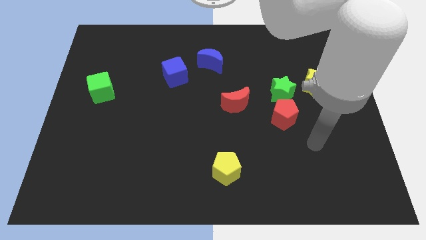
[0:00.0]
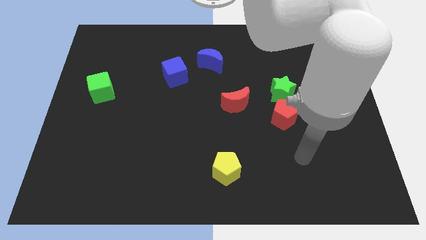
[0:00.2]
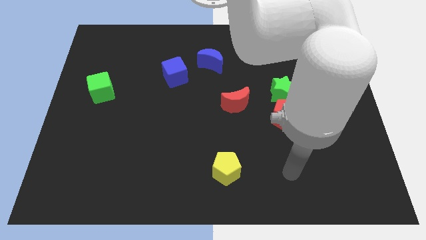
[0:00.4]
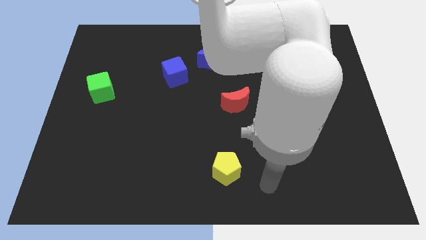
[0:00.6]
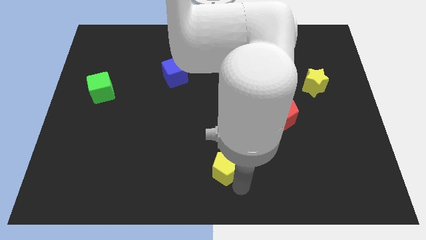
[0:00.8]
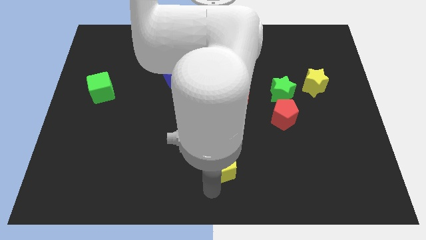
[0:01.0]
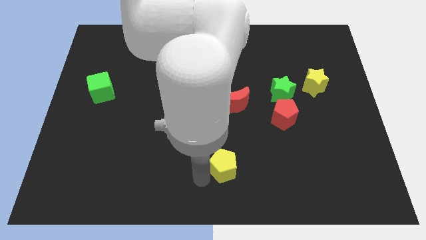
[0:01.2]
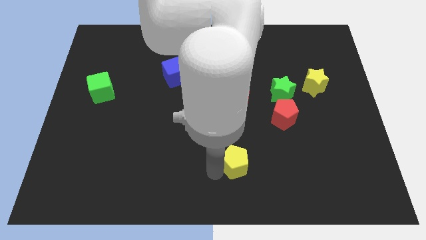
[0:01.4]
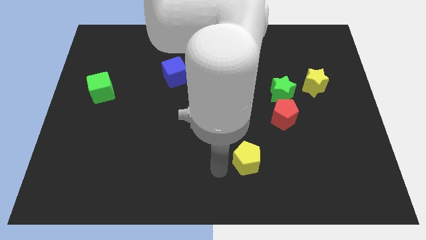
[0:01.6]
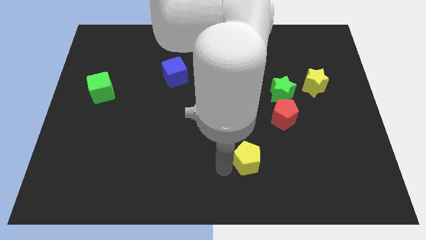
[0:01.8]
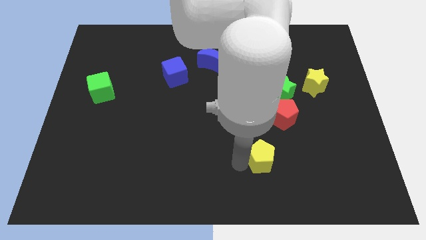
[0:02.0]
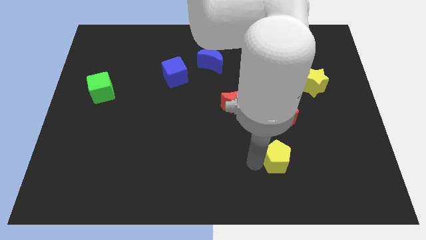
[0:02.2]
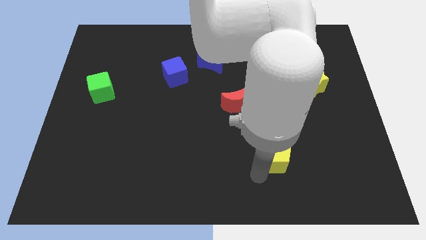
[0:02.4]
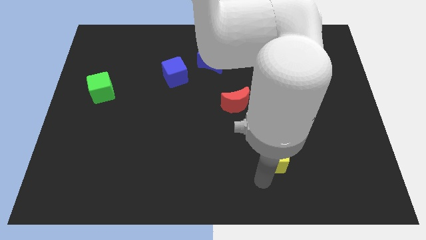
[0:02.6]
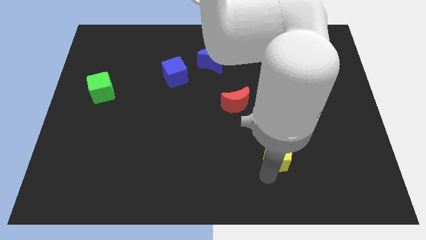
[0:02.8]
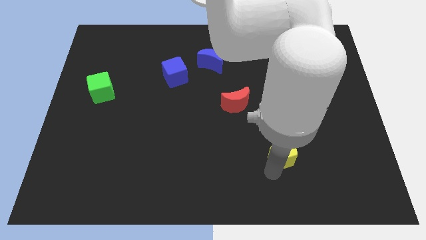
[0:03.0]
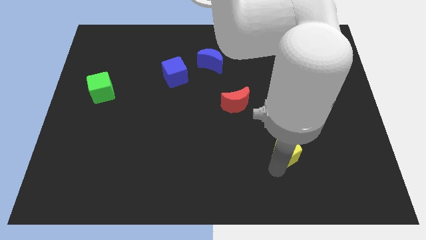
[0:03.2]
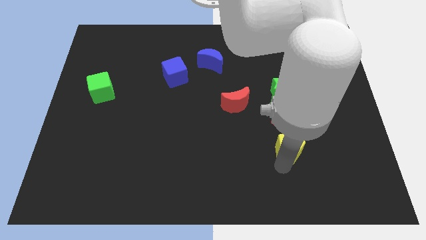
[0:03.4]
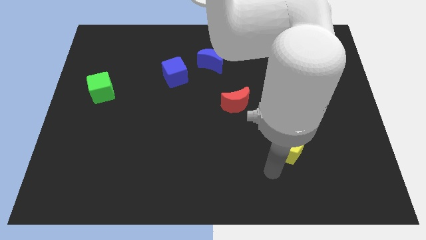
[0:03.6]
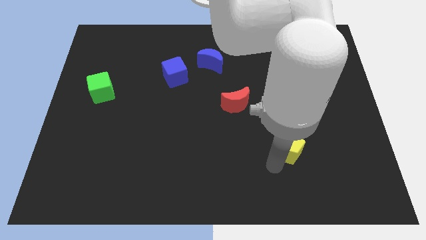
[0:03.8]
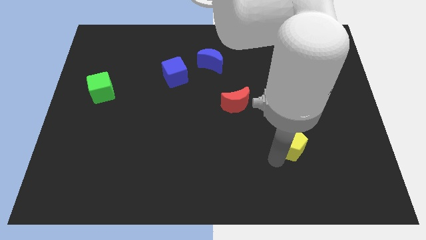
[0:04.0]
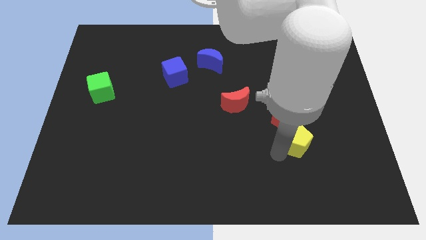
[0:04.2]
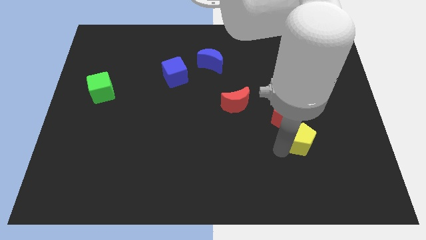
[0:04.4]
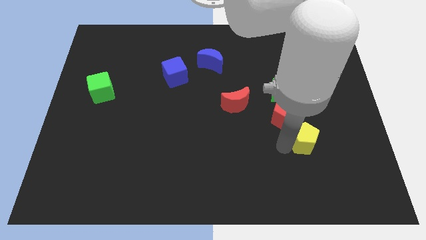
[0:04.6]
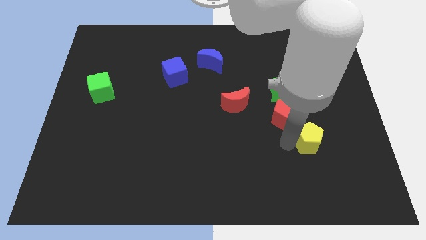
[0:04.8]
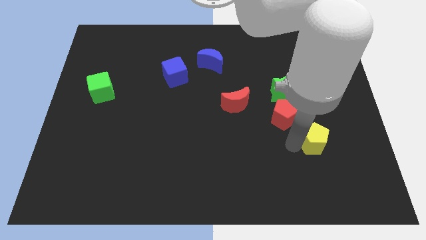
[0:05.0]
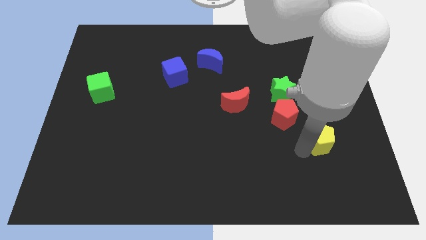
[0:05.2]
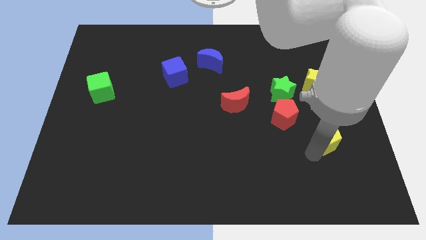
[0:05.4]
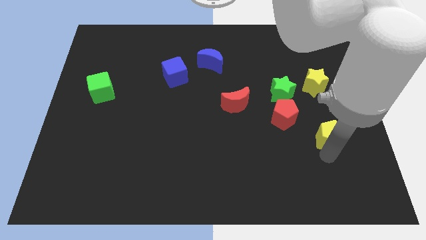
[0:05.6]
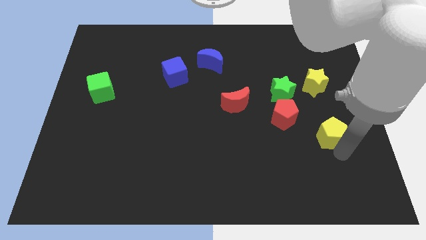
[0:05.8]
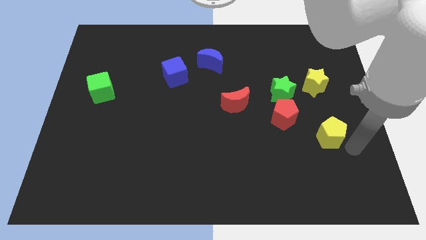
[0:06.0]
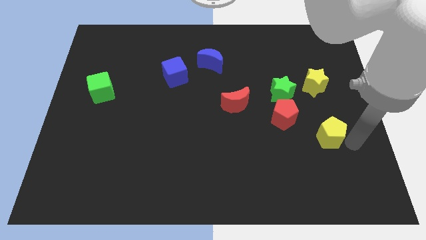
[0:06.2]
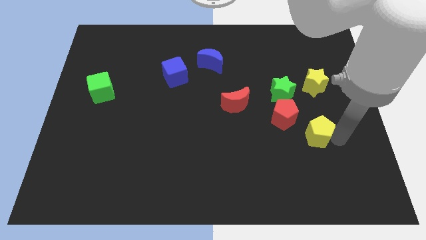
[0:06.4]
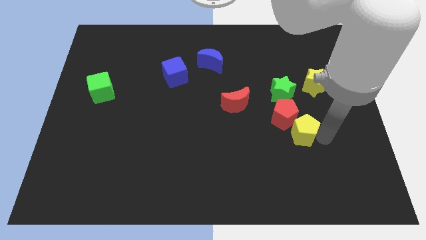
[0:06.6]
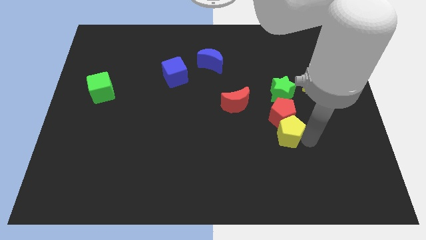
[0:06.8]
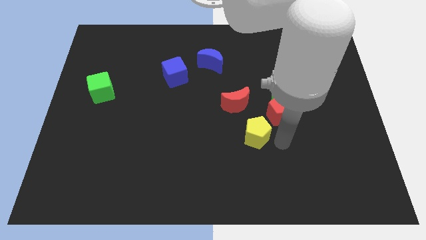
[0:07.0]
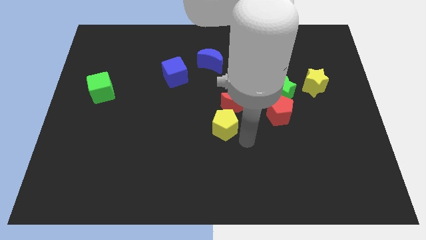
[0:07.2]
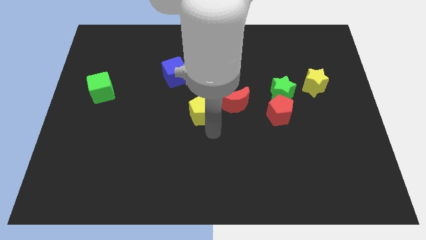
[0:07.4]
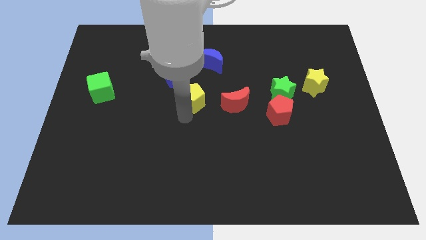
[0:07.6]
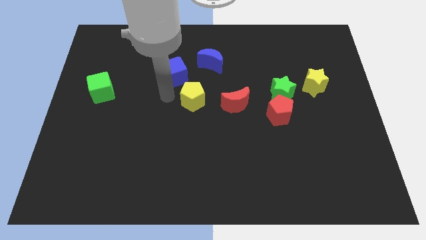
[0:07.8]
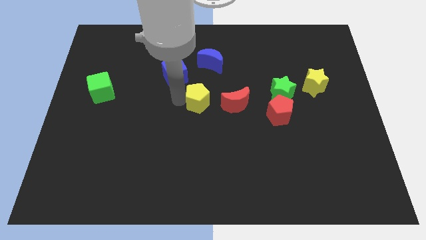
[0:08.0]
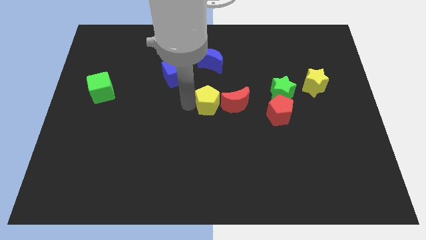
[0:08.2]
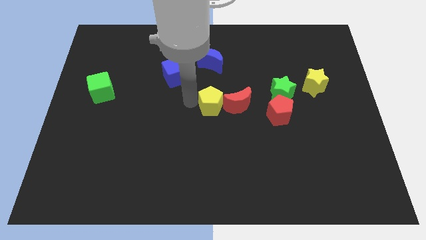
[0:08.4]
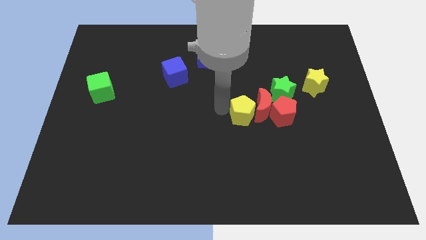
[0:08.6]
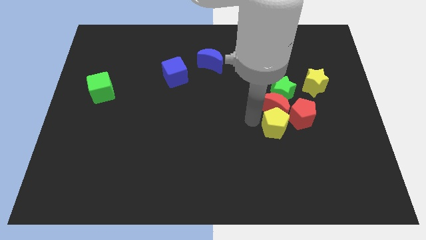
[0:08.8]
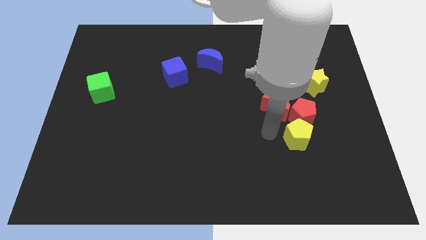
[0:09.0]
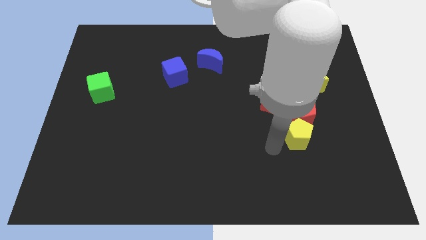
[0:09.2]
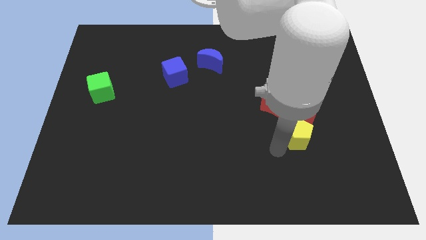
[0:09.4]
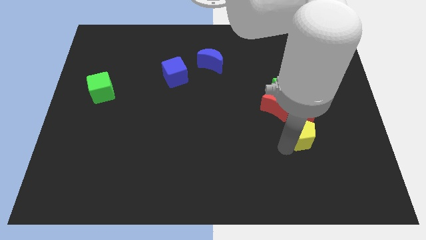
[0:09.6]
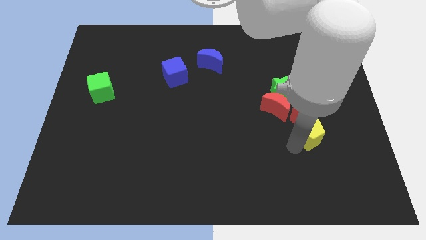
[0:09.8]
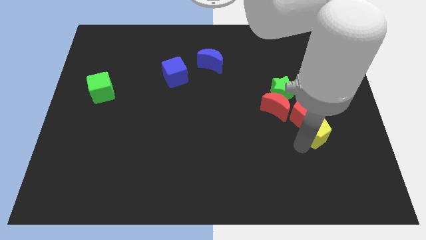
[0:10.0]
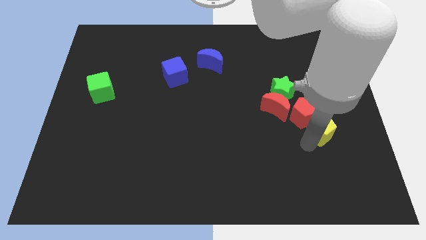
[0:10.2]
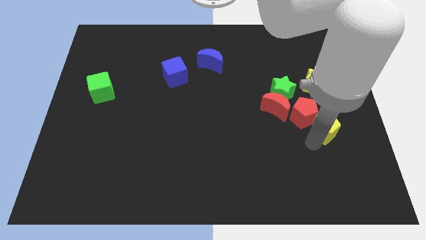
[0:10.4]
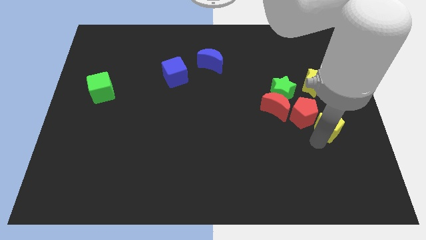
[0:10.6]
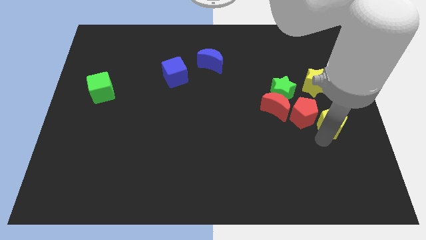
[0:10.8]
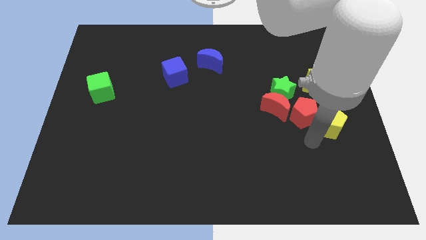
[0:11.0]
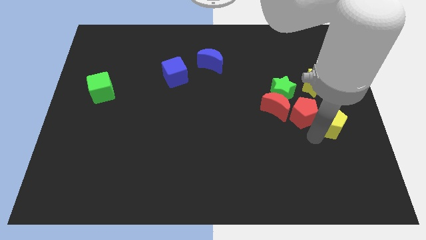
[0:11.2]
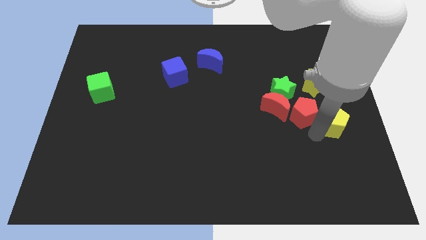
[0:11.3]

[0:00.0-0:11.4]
put the yellow pentagon to the center right

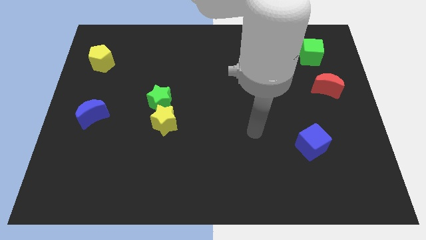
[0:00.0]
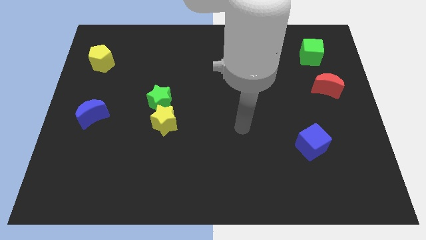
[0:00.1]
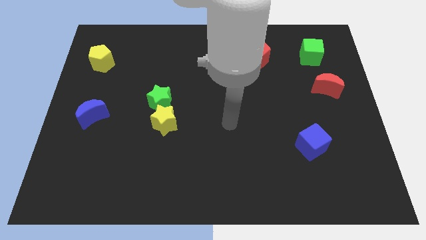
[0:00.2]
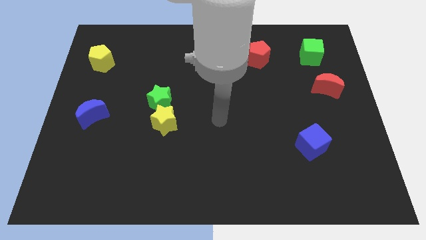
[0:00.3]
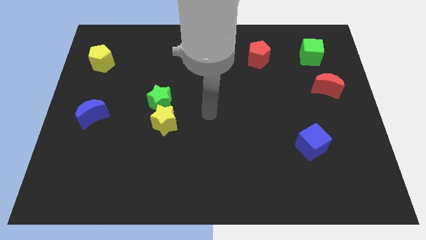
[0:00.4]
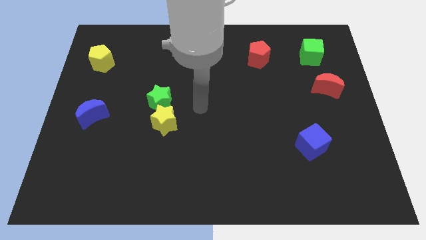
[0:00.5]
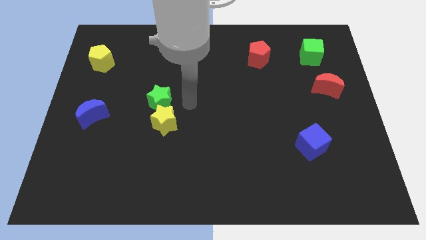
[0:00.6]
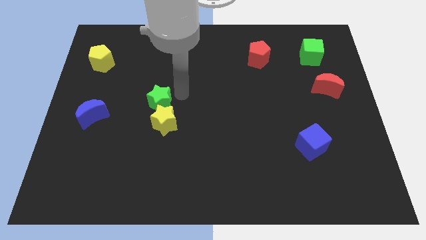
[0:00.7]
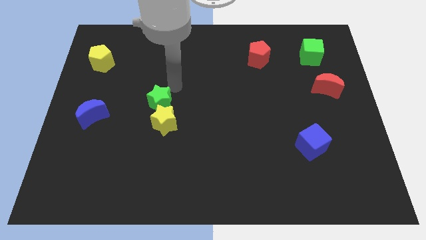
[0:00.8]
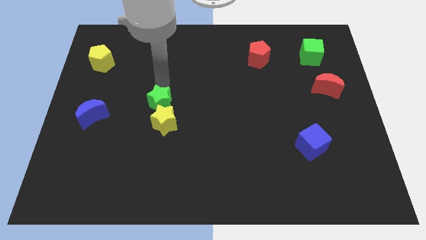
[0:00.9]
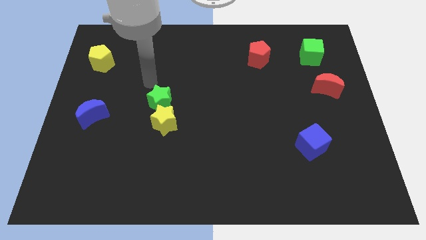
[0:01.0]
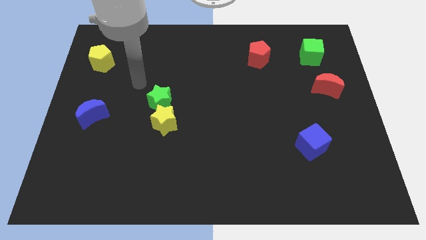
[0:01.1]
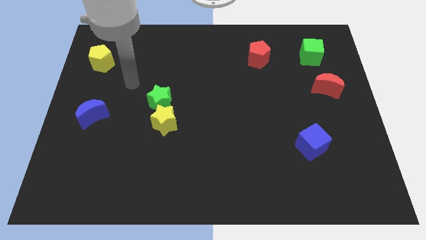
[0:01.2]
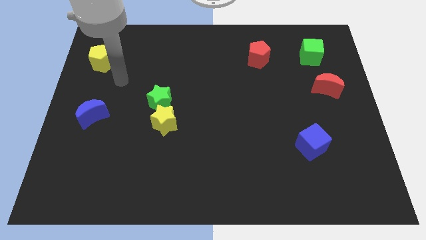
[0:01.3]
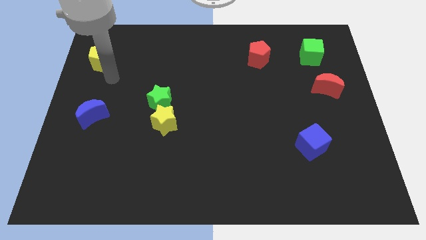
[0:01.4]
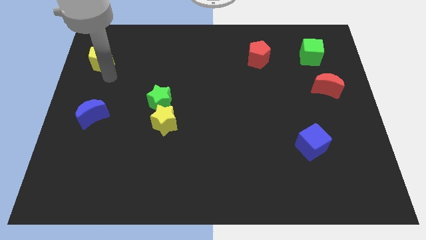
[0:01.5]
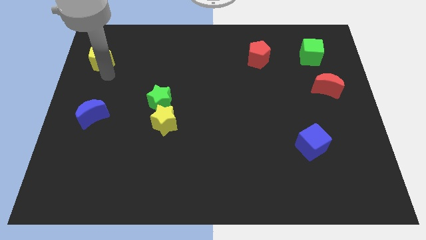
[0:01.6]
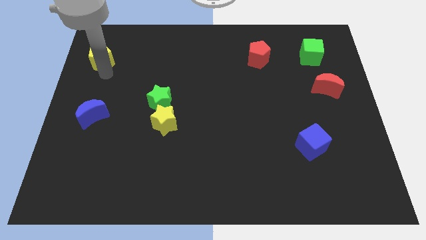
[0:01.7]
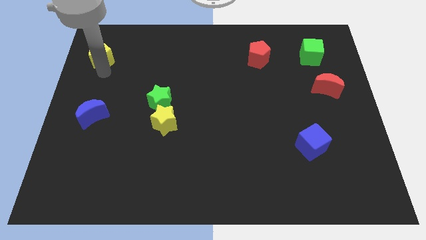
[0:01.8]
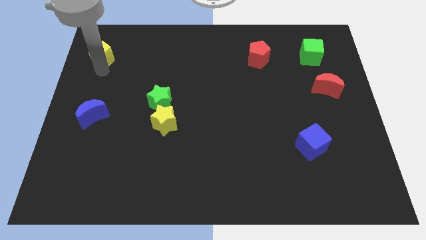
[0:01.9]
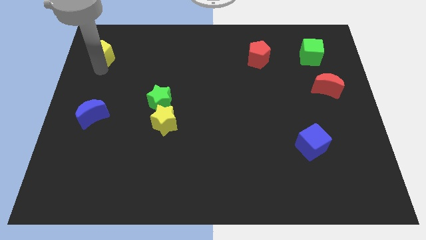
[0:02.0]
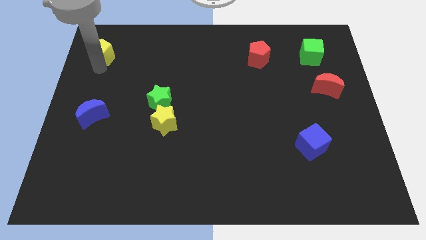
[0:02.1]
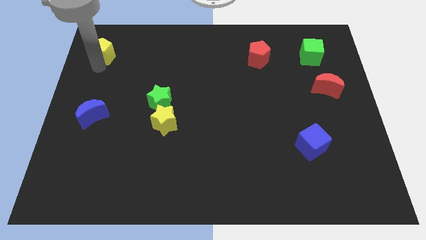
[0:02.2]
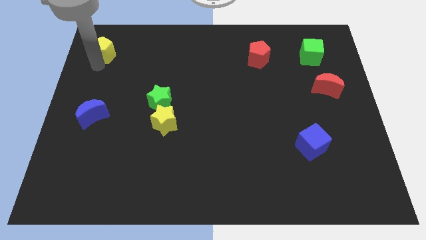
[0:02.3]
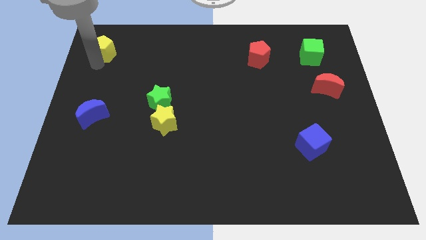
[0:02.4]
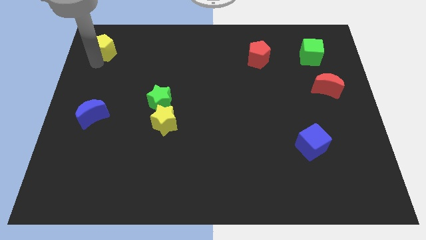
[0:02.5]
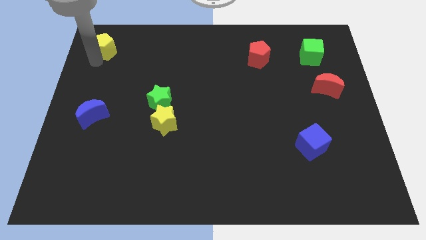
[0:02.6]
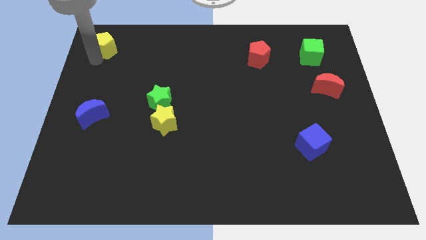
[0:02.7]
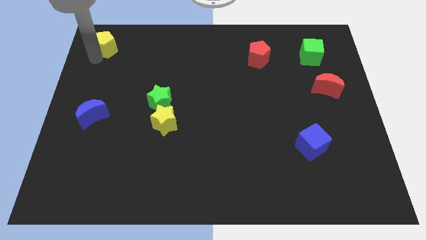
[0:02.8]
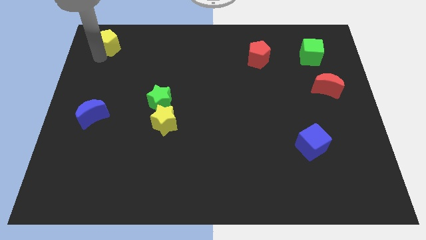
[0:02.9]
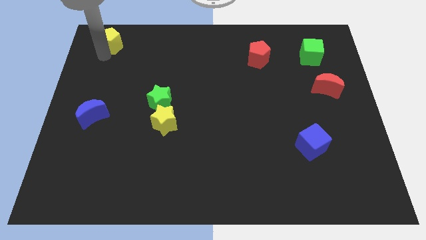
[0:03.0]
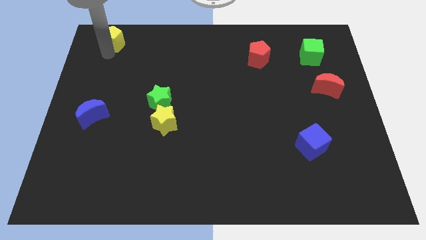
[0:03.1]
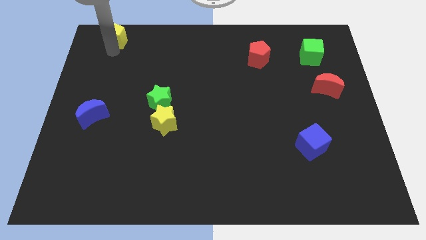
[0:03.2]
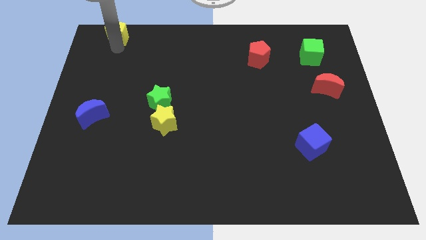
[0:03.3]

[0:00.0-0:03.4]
push the yellow pentagon to the top left
